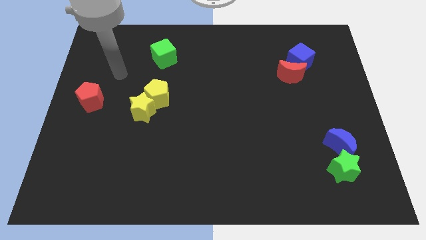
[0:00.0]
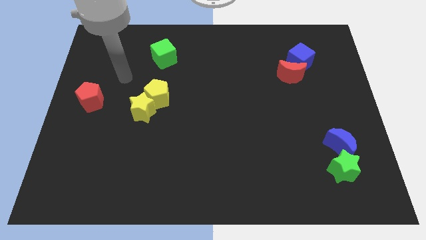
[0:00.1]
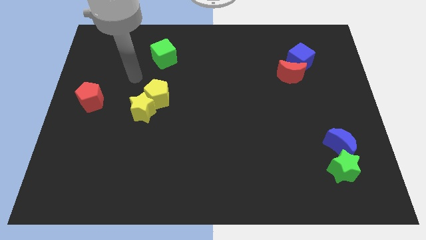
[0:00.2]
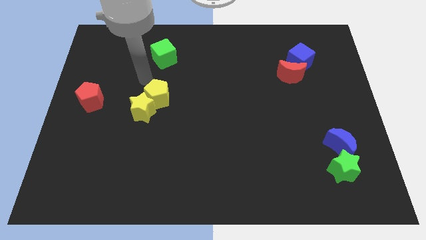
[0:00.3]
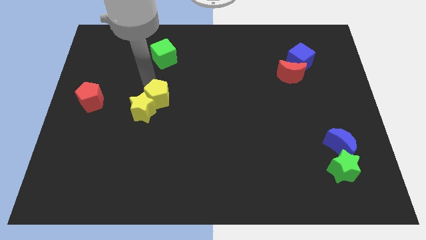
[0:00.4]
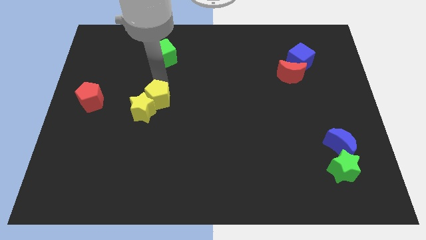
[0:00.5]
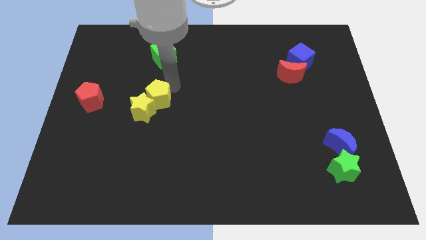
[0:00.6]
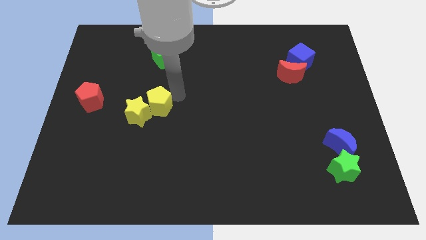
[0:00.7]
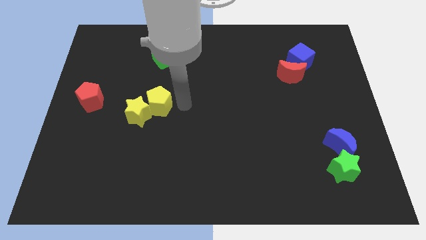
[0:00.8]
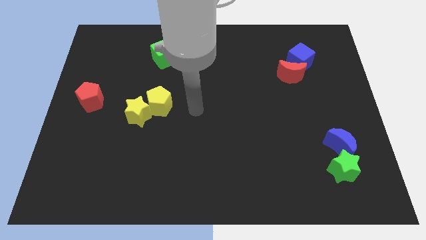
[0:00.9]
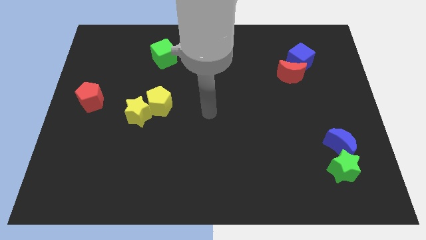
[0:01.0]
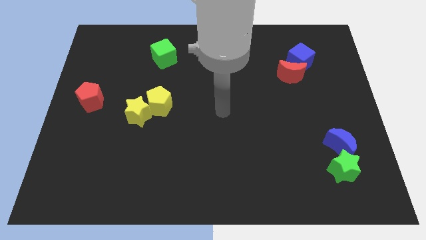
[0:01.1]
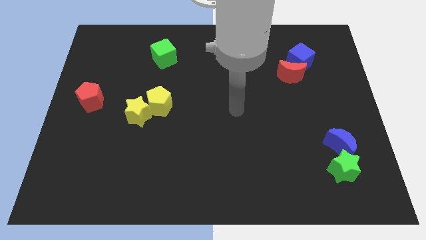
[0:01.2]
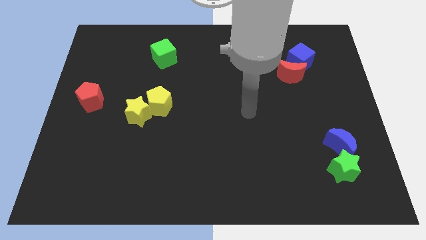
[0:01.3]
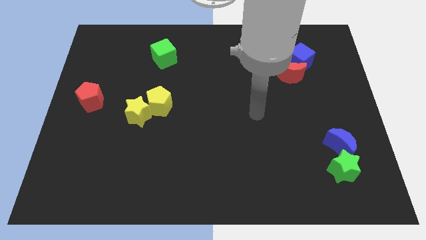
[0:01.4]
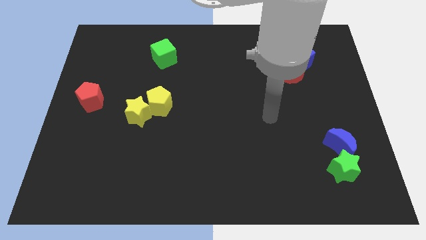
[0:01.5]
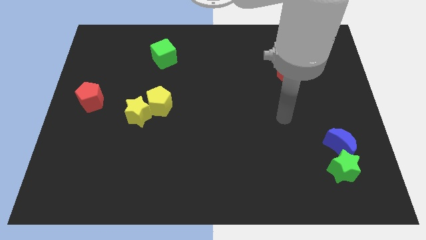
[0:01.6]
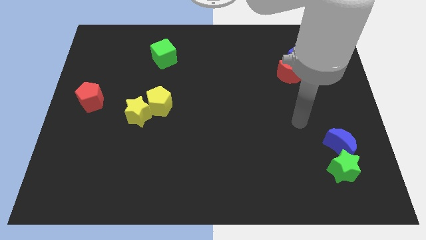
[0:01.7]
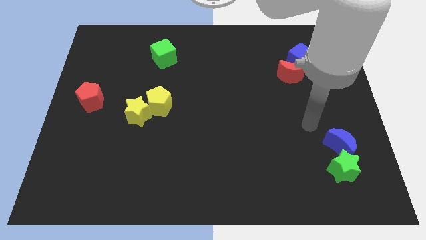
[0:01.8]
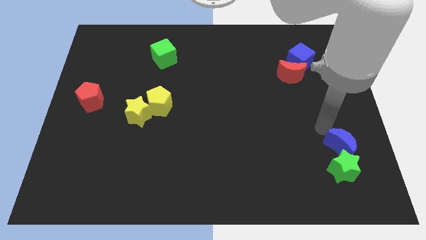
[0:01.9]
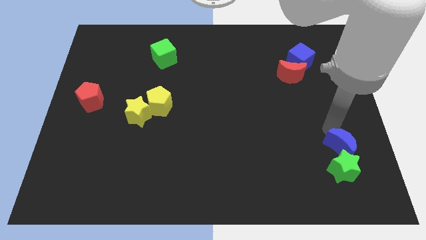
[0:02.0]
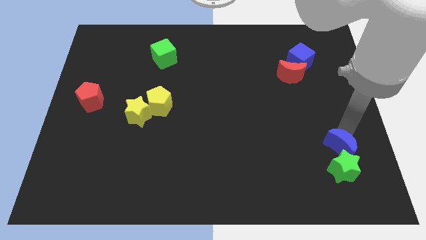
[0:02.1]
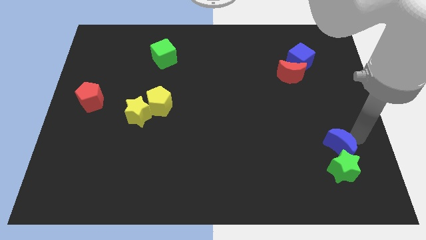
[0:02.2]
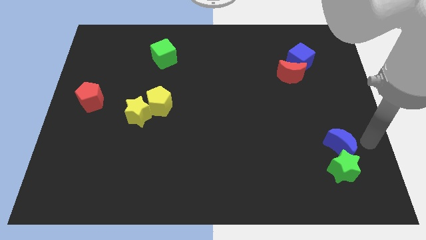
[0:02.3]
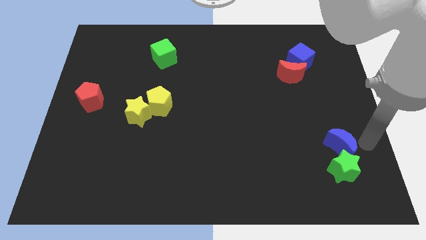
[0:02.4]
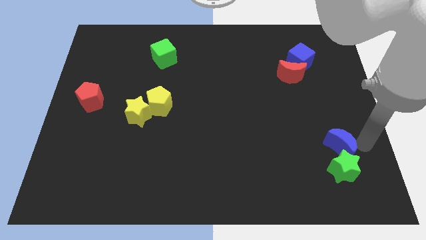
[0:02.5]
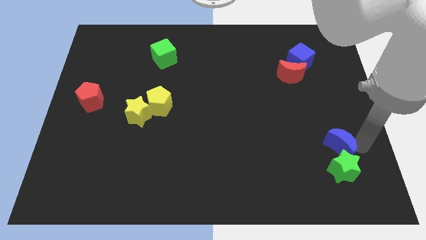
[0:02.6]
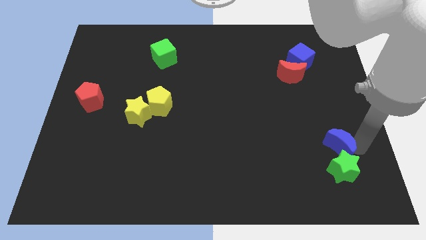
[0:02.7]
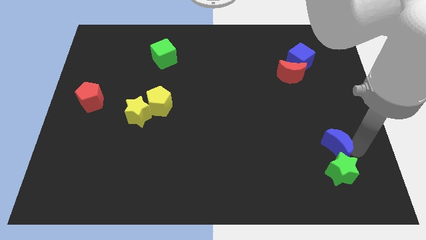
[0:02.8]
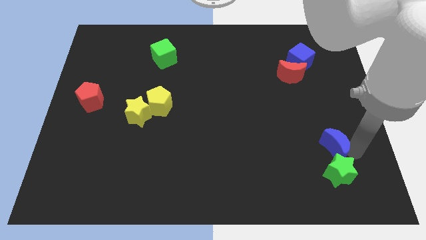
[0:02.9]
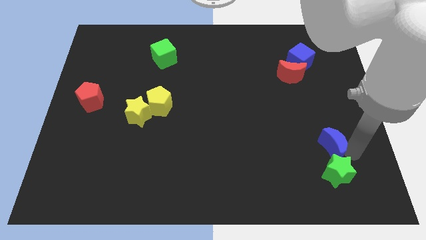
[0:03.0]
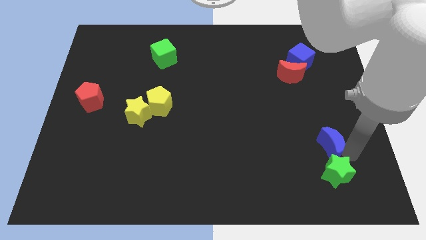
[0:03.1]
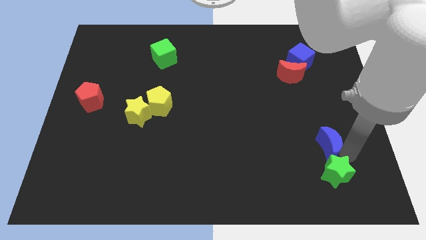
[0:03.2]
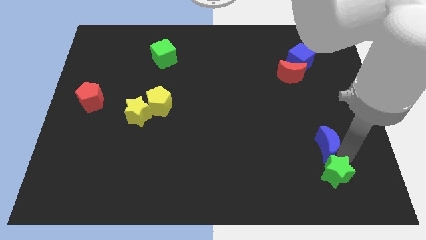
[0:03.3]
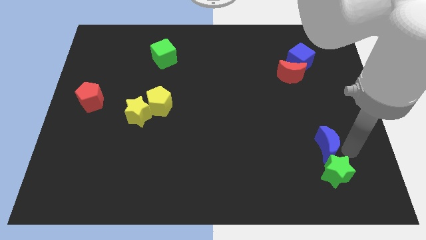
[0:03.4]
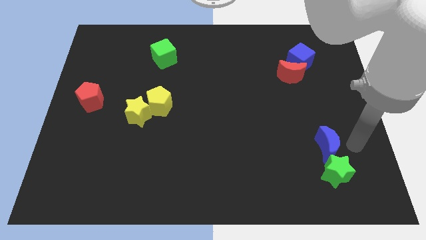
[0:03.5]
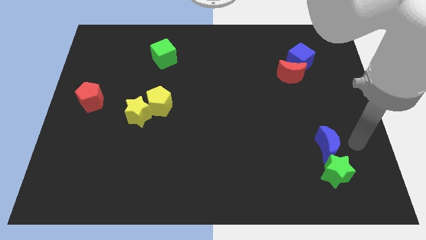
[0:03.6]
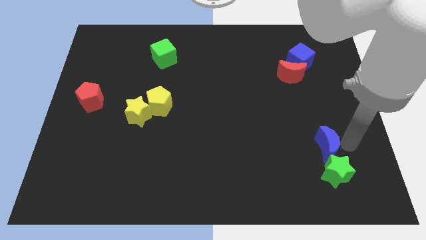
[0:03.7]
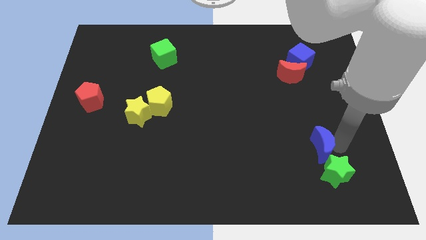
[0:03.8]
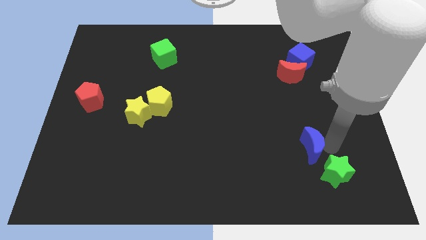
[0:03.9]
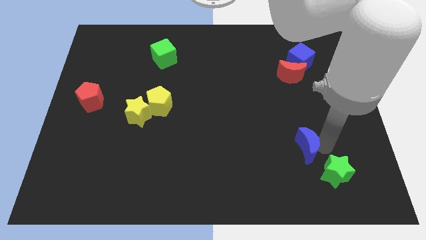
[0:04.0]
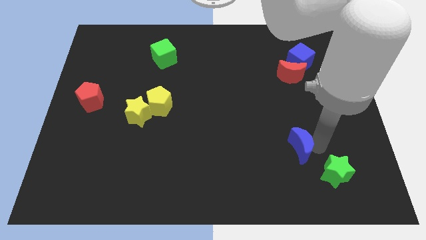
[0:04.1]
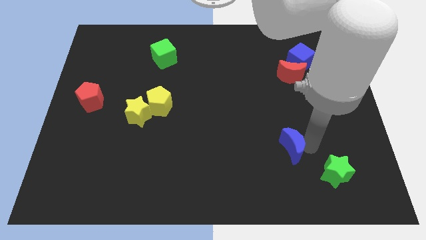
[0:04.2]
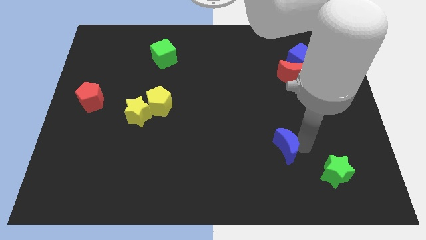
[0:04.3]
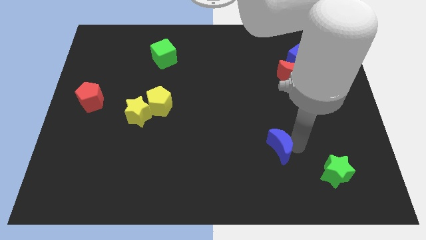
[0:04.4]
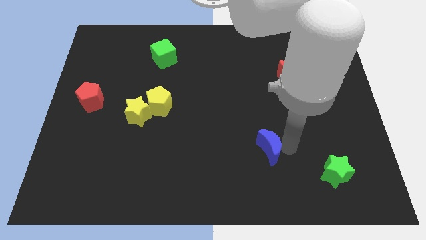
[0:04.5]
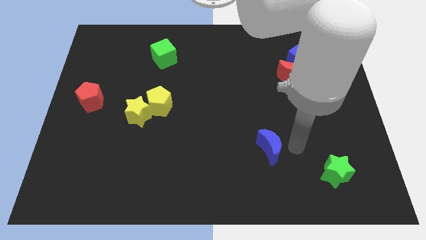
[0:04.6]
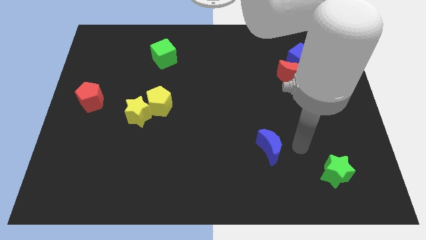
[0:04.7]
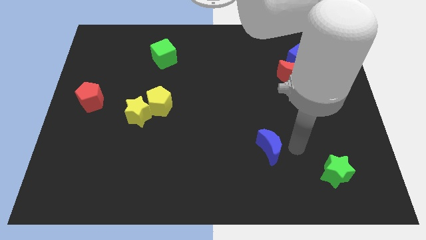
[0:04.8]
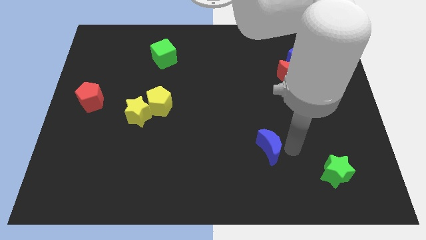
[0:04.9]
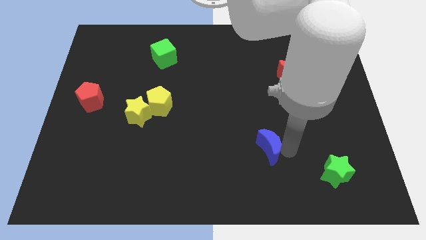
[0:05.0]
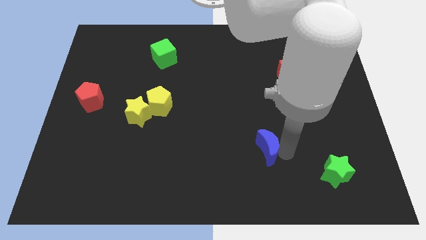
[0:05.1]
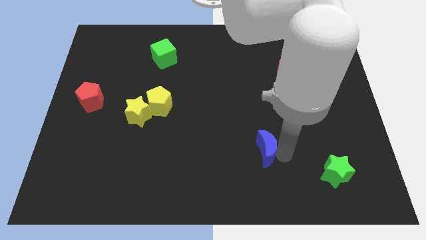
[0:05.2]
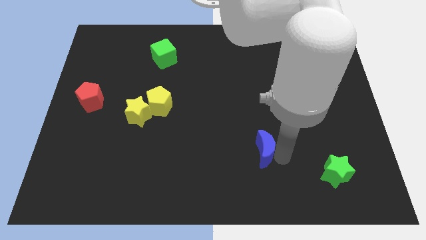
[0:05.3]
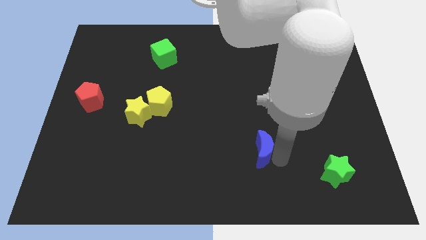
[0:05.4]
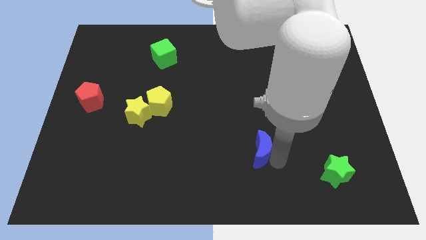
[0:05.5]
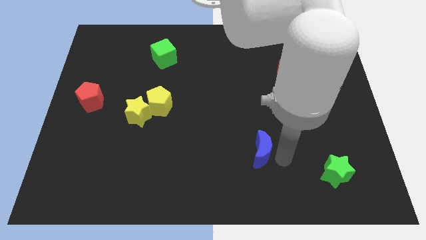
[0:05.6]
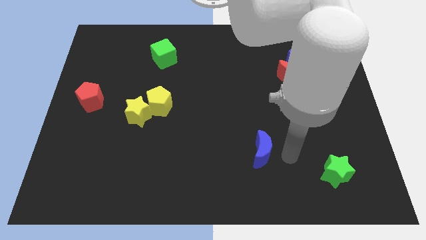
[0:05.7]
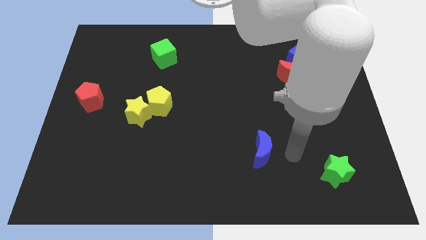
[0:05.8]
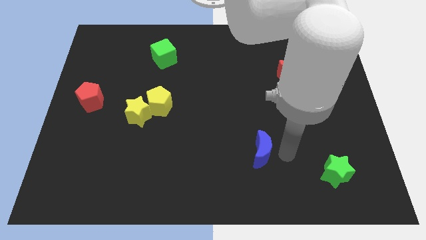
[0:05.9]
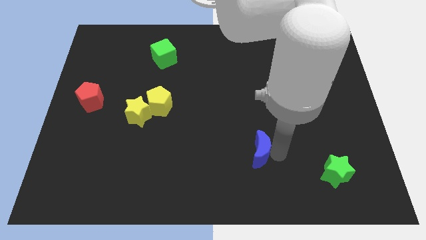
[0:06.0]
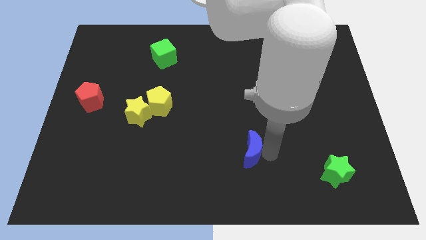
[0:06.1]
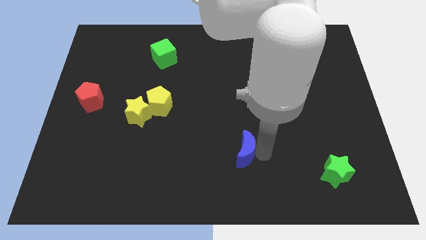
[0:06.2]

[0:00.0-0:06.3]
slide the blue moon left

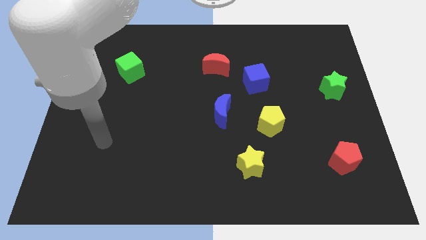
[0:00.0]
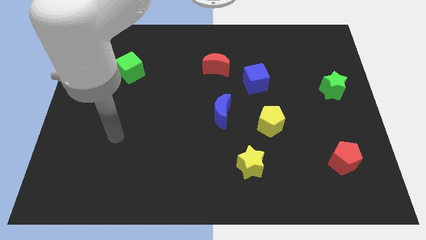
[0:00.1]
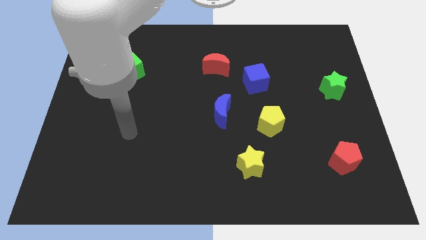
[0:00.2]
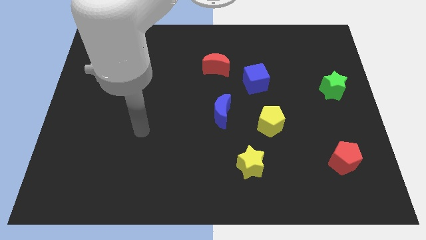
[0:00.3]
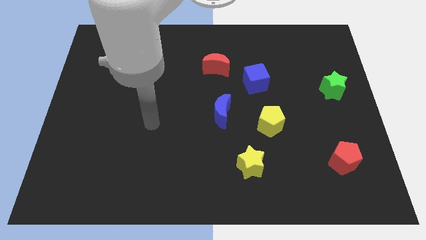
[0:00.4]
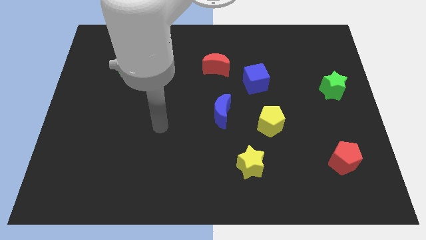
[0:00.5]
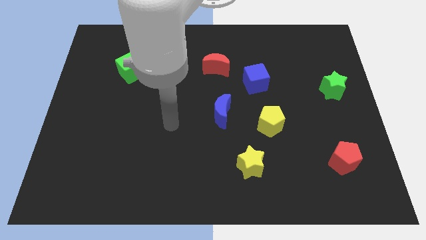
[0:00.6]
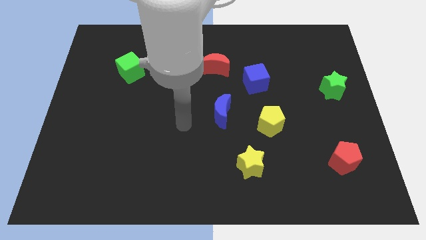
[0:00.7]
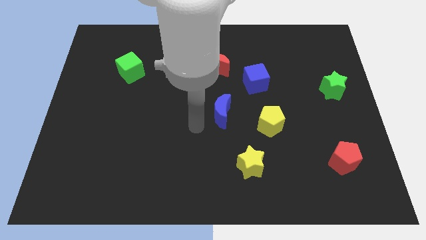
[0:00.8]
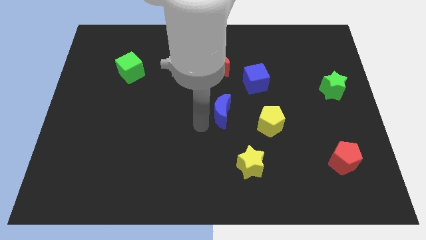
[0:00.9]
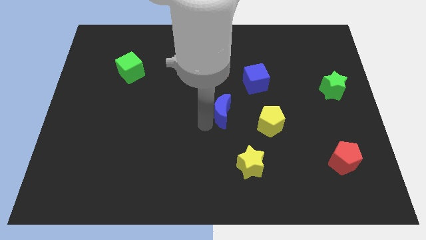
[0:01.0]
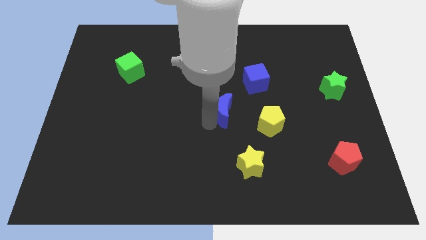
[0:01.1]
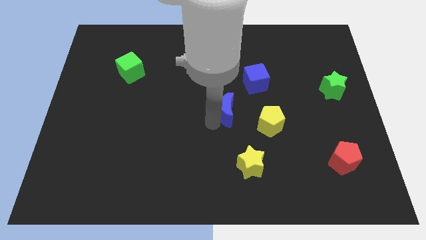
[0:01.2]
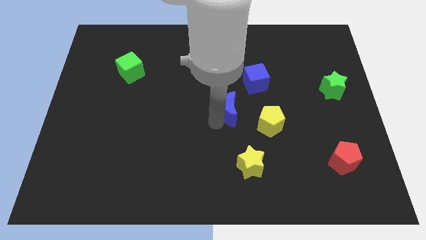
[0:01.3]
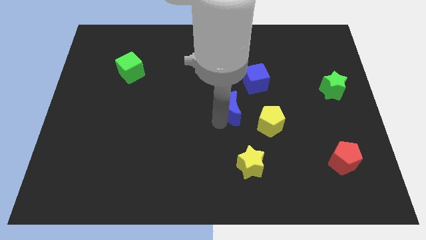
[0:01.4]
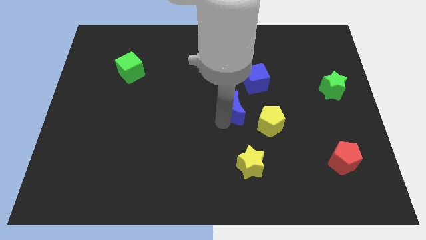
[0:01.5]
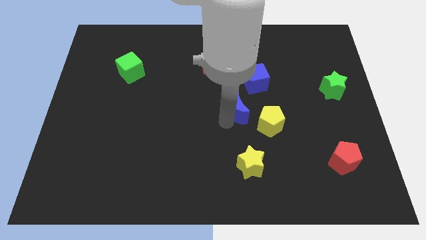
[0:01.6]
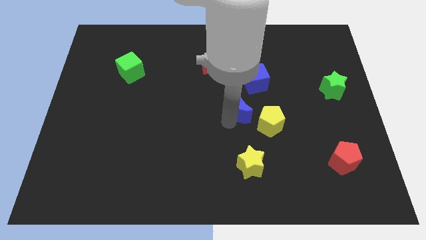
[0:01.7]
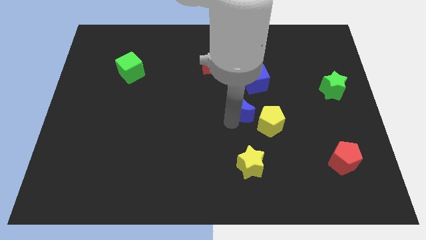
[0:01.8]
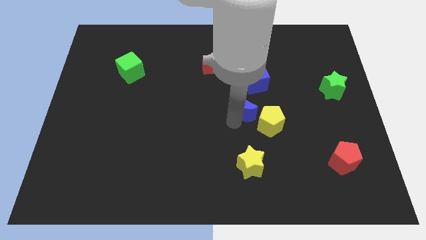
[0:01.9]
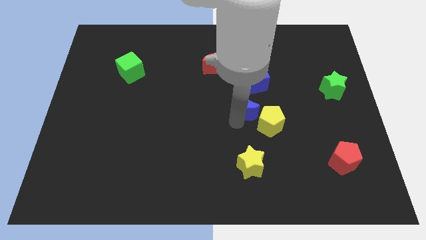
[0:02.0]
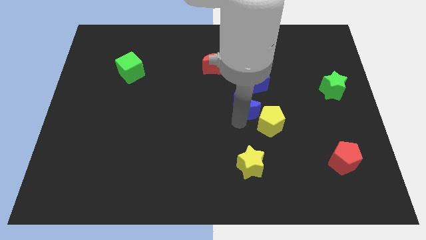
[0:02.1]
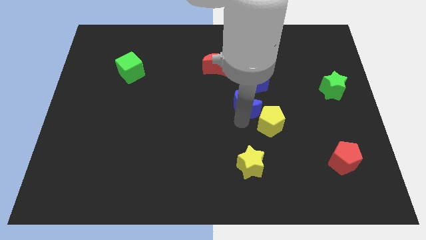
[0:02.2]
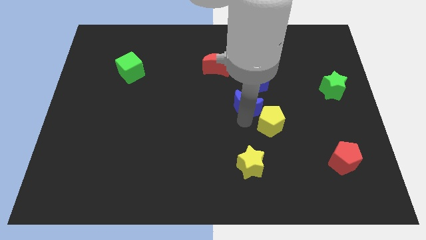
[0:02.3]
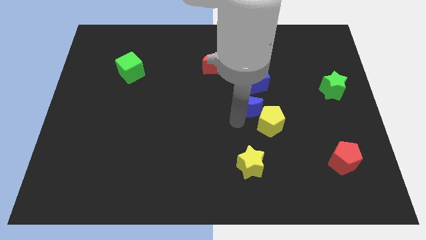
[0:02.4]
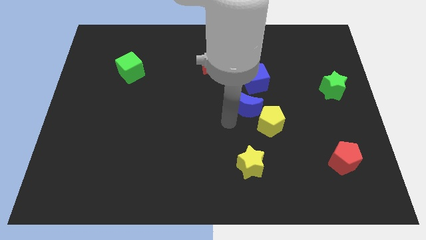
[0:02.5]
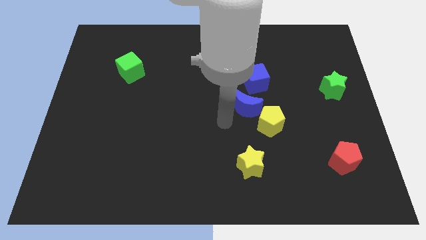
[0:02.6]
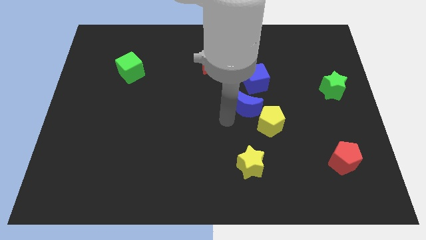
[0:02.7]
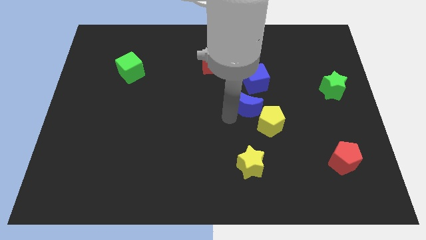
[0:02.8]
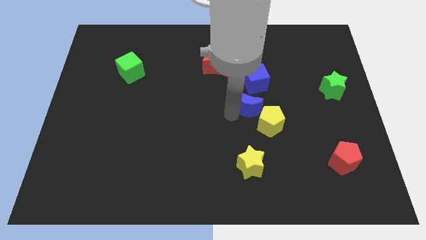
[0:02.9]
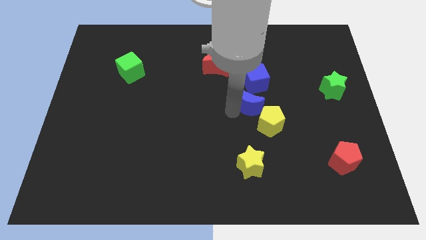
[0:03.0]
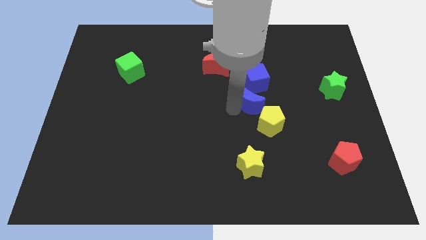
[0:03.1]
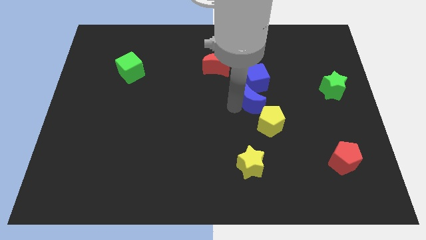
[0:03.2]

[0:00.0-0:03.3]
slightly push the blue moon upwards and to the right diagonally
